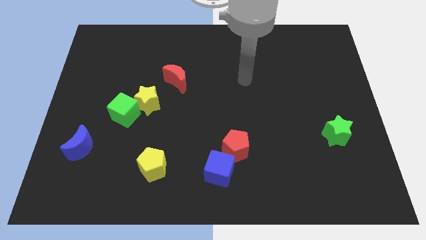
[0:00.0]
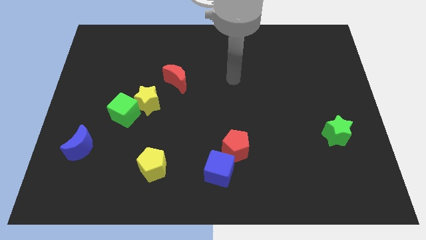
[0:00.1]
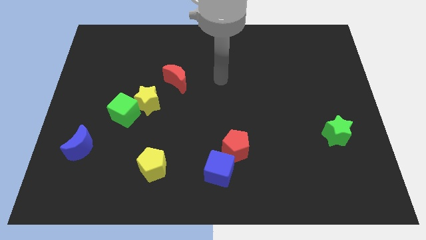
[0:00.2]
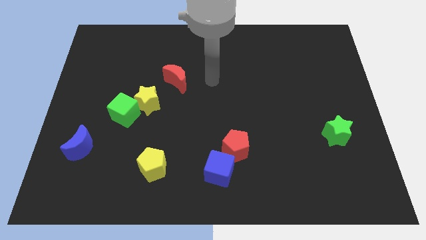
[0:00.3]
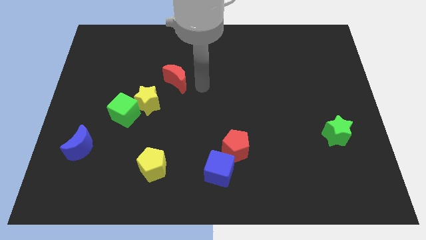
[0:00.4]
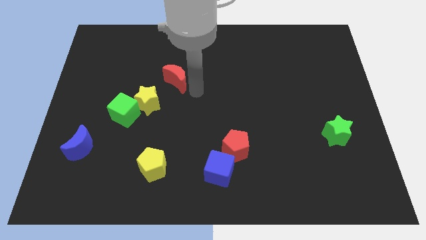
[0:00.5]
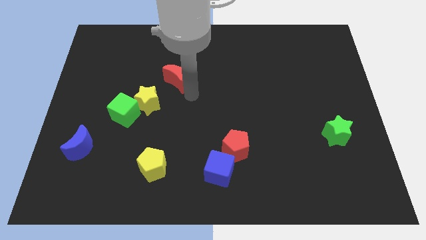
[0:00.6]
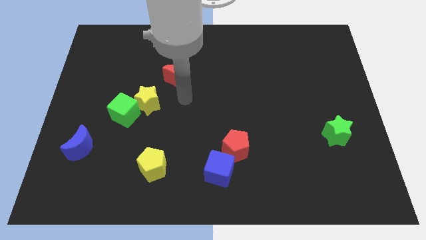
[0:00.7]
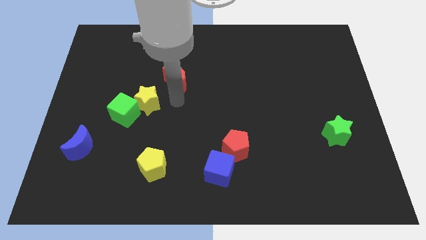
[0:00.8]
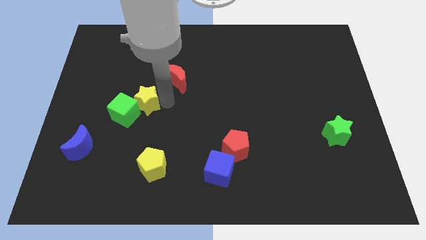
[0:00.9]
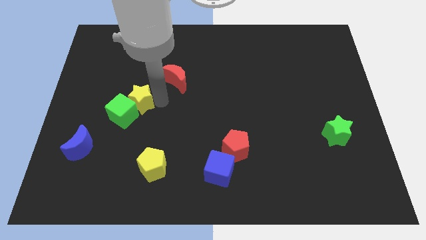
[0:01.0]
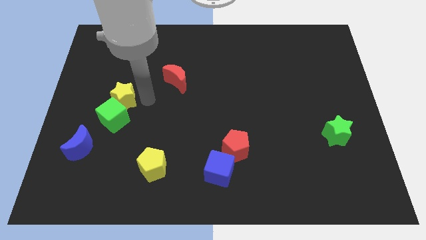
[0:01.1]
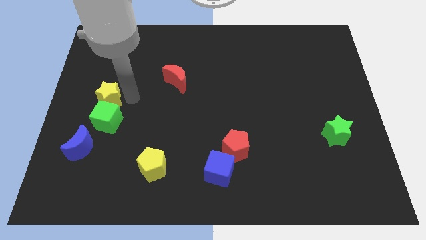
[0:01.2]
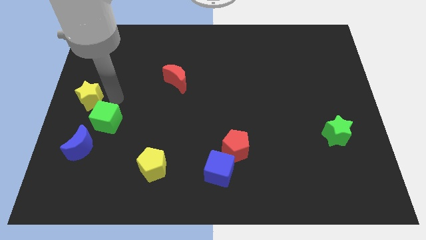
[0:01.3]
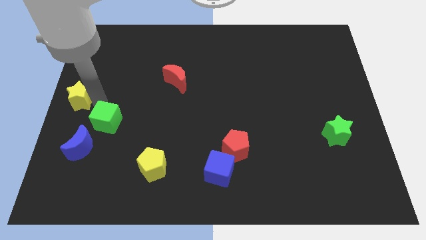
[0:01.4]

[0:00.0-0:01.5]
pull the green cube apart from the yellow star

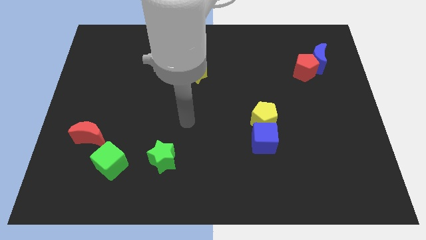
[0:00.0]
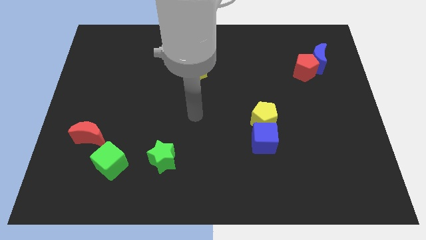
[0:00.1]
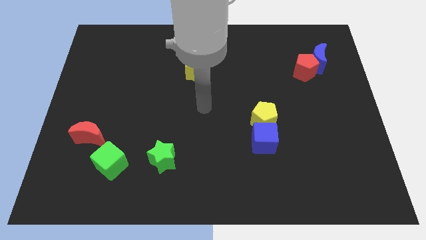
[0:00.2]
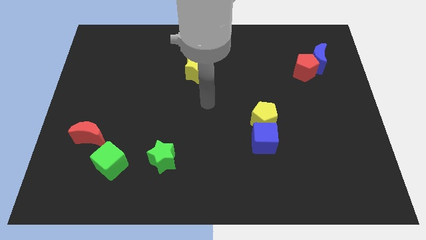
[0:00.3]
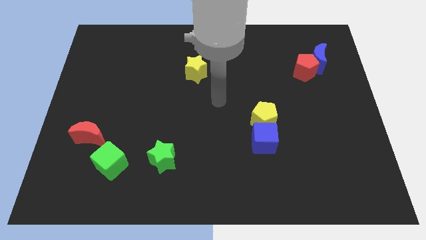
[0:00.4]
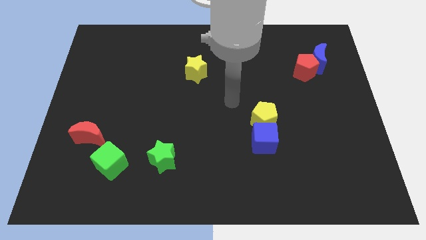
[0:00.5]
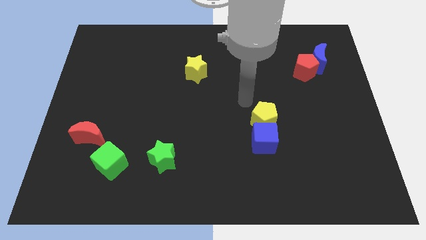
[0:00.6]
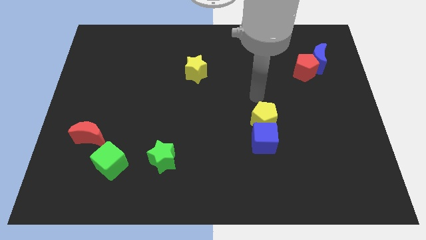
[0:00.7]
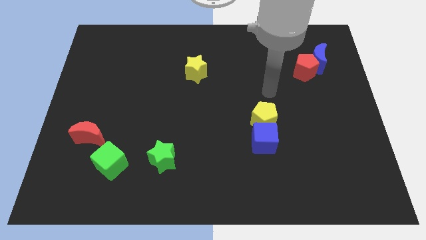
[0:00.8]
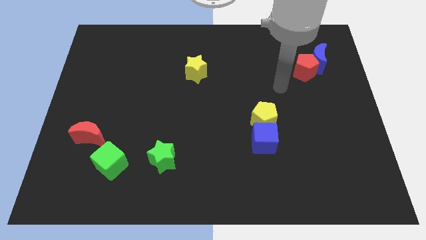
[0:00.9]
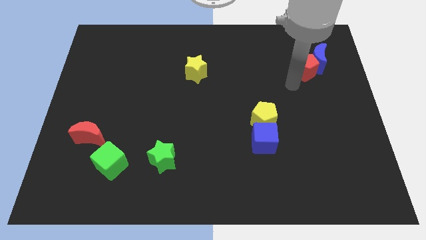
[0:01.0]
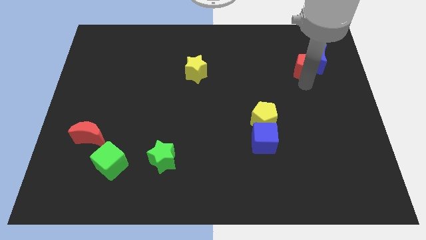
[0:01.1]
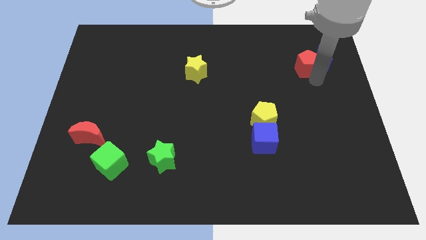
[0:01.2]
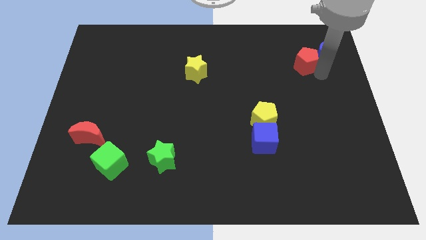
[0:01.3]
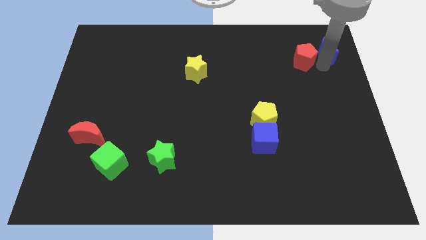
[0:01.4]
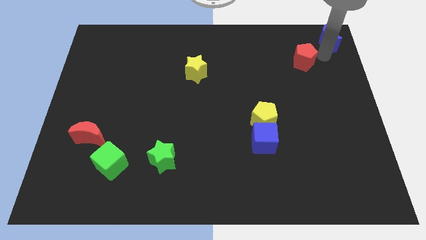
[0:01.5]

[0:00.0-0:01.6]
separate the red pentagon from the blue moon

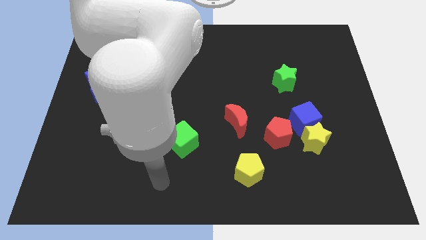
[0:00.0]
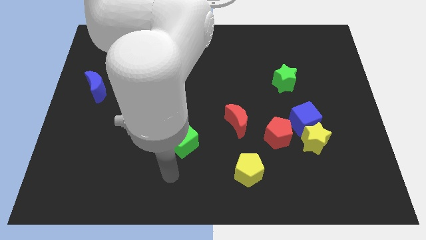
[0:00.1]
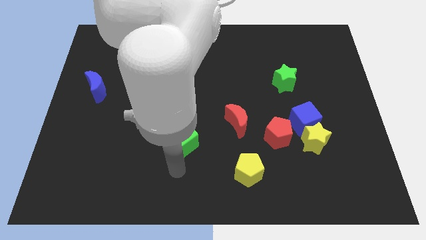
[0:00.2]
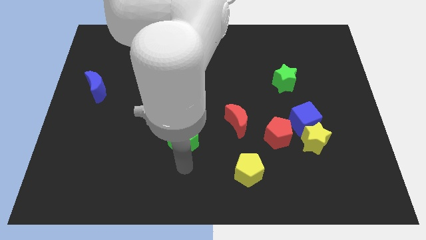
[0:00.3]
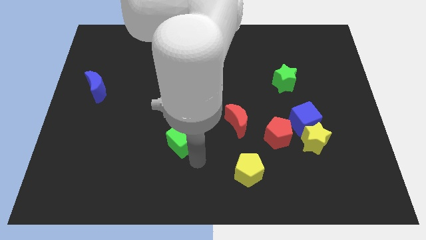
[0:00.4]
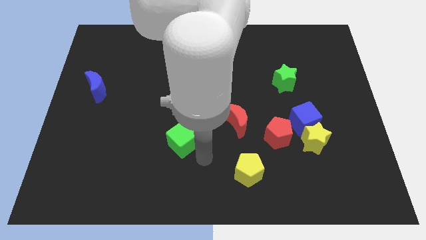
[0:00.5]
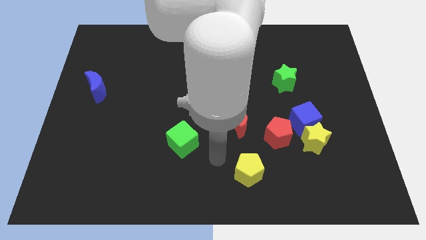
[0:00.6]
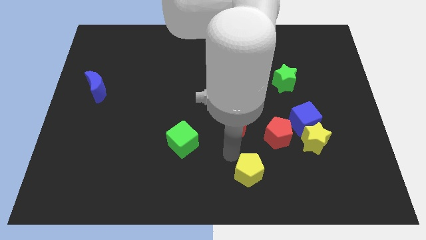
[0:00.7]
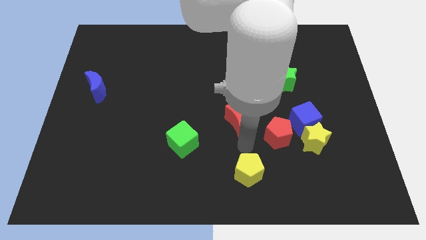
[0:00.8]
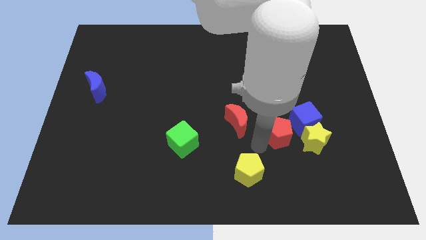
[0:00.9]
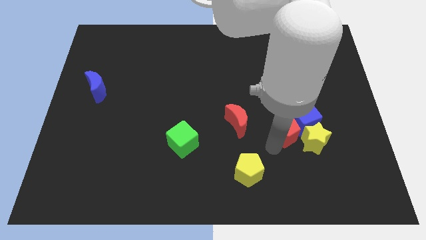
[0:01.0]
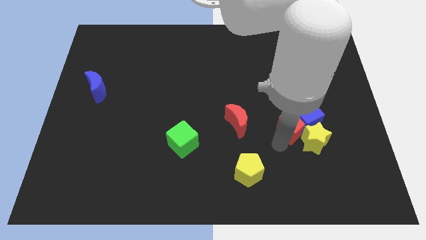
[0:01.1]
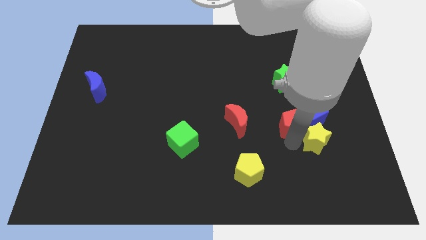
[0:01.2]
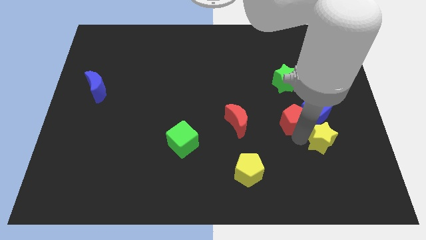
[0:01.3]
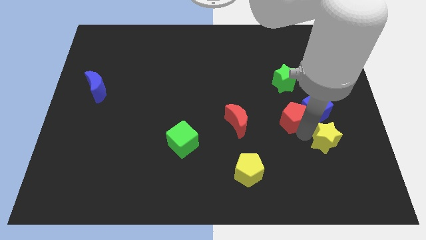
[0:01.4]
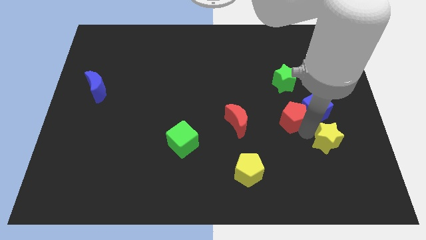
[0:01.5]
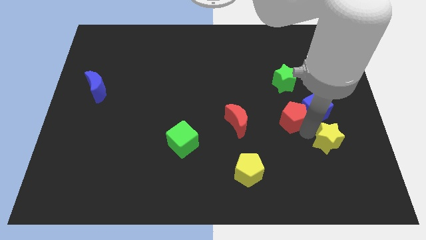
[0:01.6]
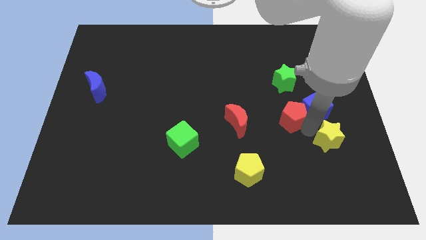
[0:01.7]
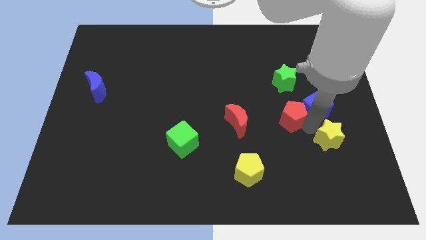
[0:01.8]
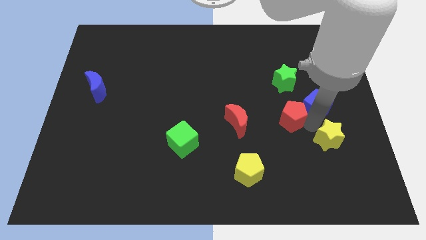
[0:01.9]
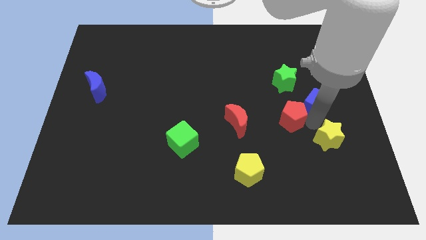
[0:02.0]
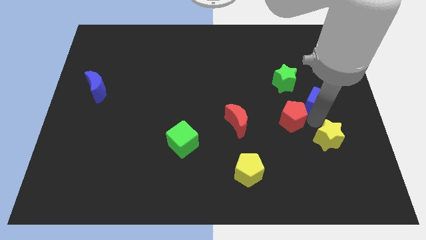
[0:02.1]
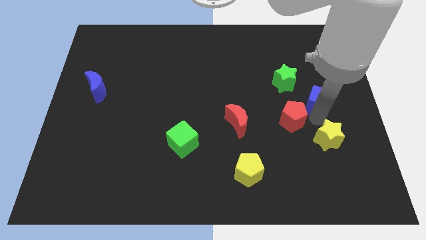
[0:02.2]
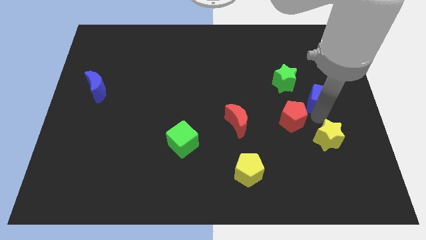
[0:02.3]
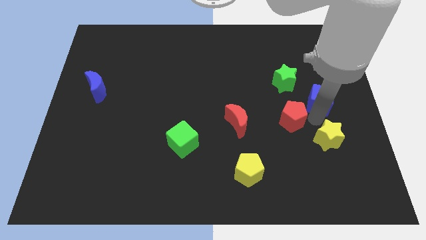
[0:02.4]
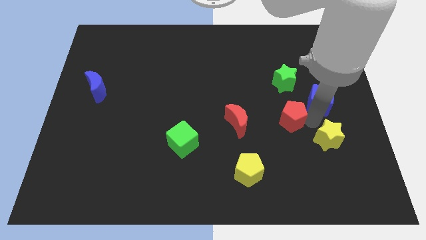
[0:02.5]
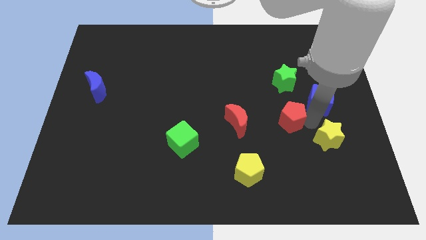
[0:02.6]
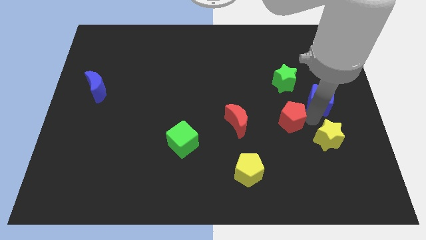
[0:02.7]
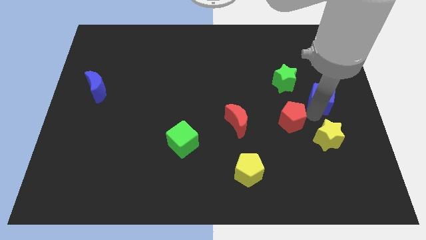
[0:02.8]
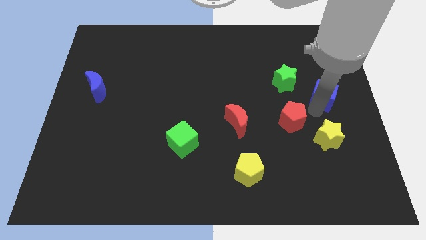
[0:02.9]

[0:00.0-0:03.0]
separate the blue cube from the yellow star and red pentagon

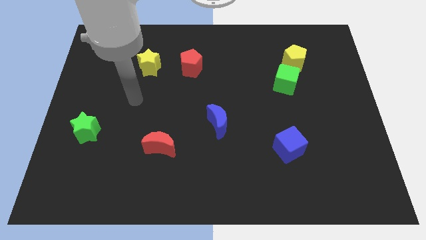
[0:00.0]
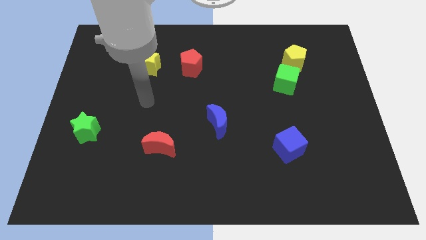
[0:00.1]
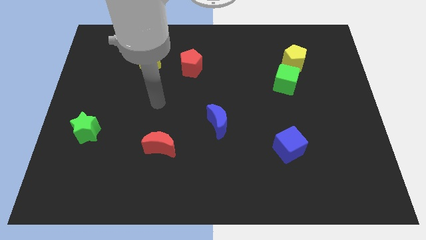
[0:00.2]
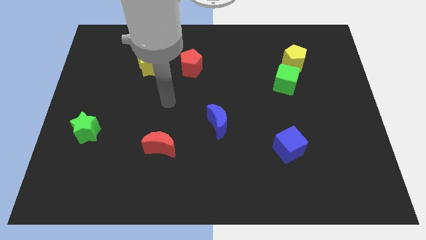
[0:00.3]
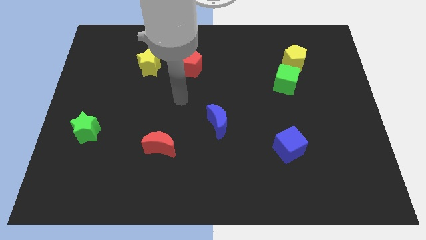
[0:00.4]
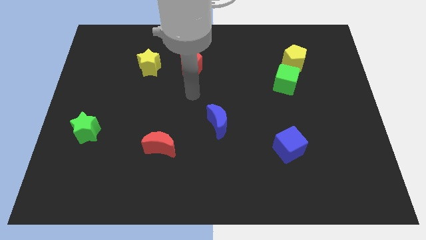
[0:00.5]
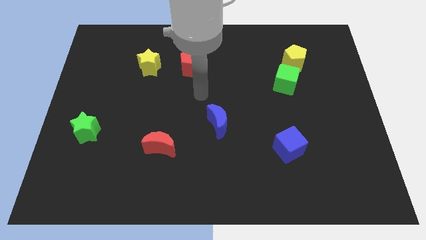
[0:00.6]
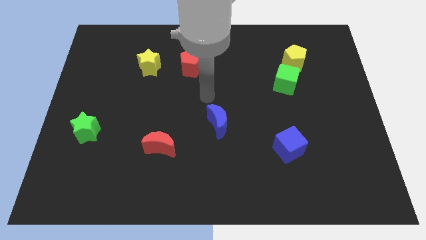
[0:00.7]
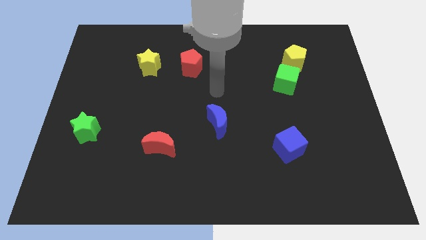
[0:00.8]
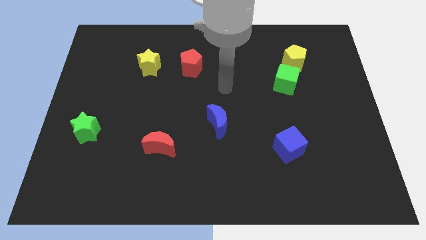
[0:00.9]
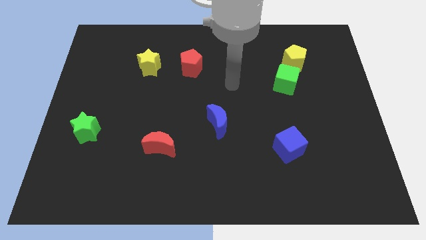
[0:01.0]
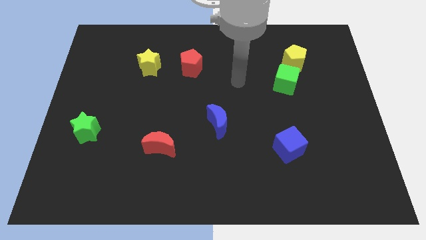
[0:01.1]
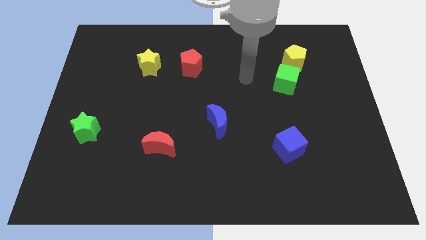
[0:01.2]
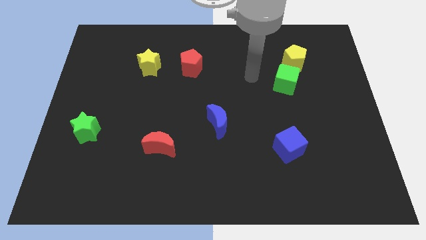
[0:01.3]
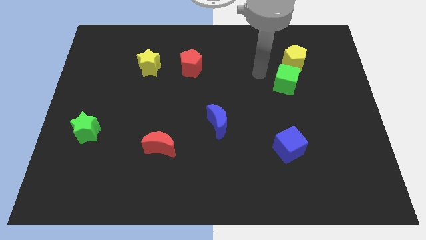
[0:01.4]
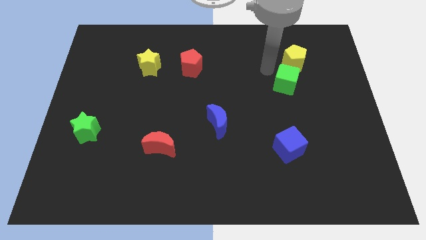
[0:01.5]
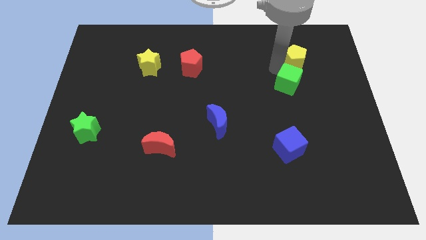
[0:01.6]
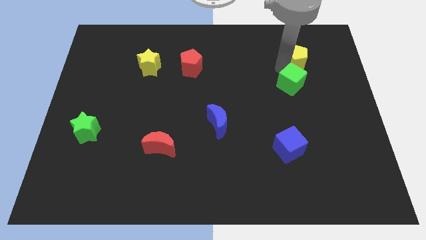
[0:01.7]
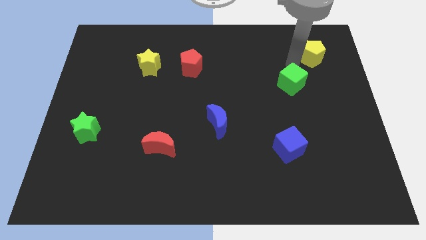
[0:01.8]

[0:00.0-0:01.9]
separate the green cube from the yellow pentagon

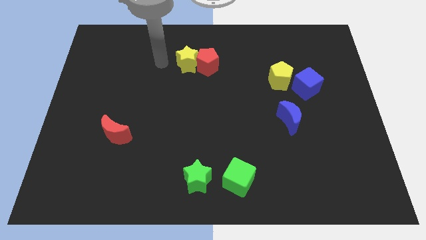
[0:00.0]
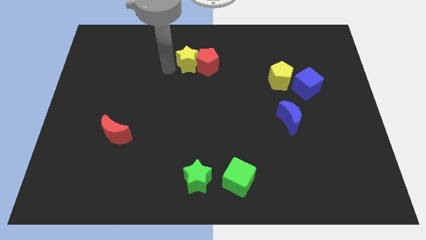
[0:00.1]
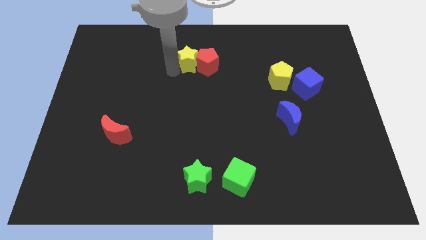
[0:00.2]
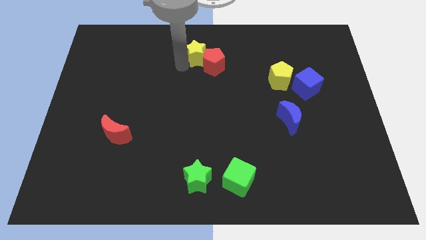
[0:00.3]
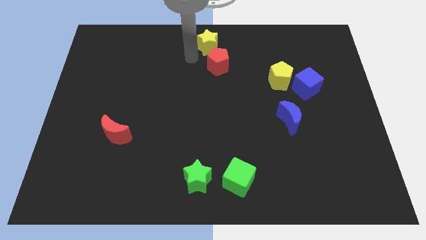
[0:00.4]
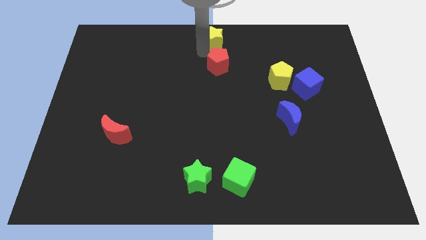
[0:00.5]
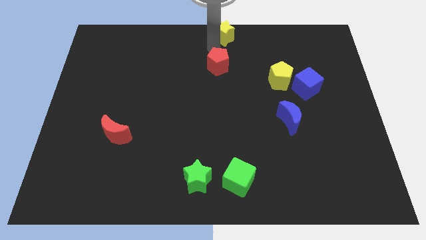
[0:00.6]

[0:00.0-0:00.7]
separate the red pentagon from the yellow star

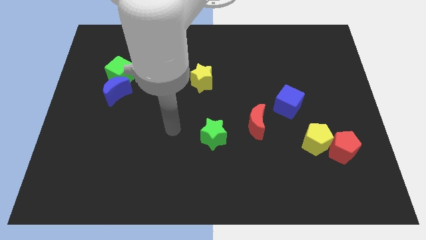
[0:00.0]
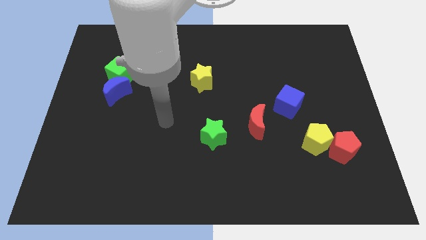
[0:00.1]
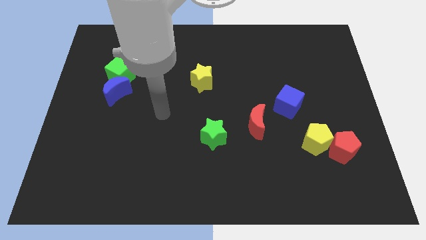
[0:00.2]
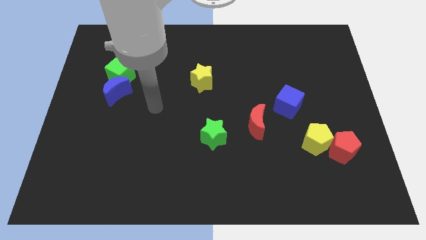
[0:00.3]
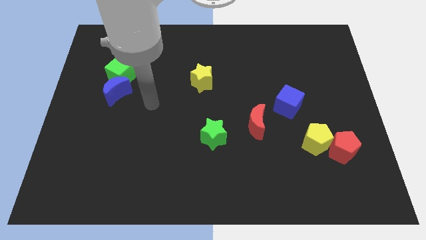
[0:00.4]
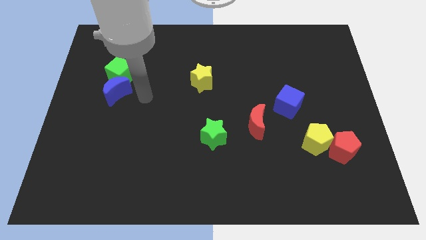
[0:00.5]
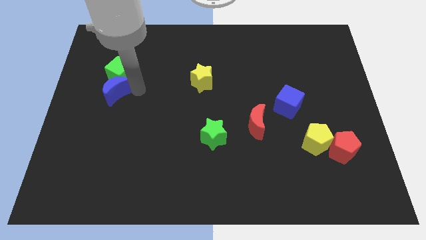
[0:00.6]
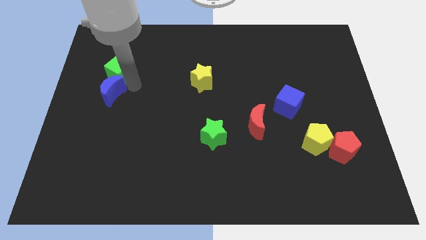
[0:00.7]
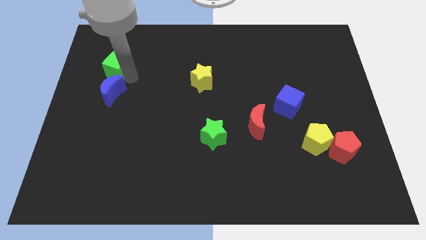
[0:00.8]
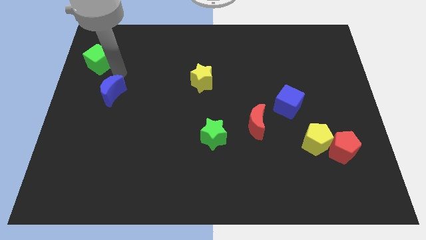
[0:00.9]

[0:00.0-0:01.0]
pull the blue moon apart from the green cube
